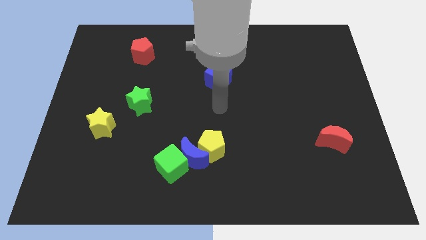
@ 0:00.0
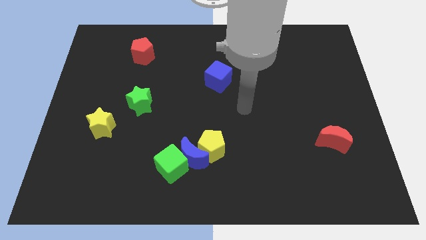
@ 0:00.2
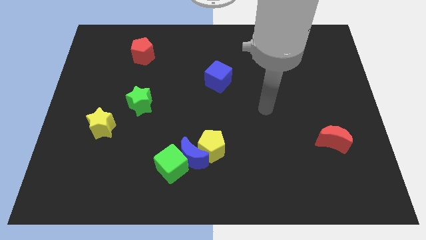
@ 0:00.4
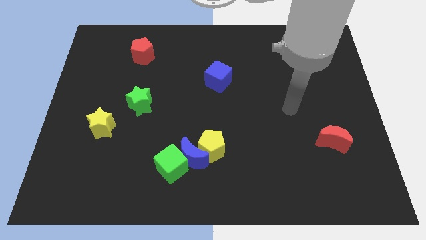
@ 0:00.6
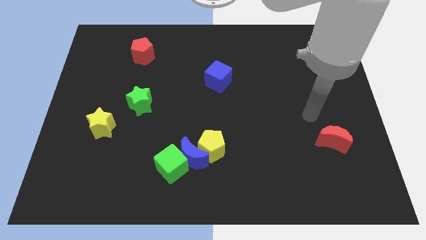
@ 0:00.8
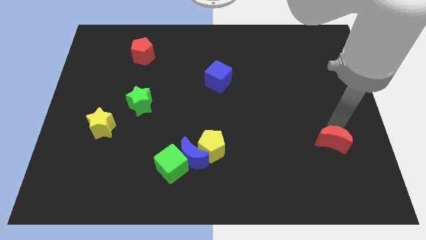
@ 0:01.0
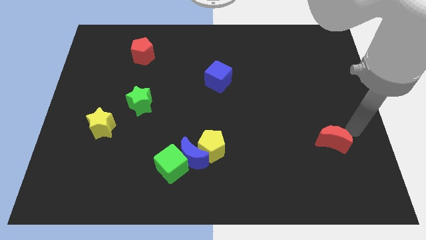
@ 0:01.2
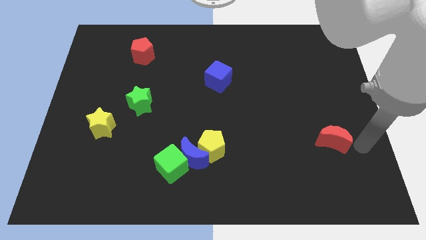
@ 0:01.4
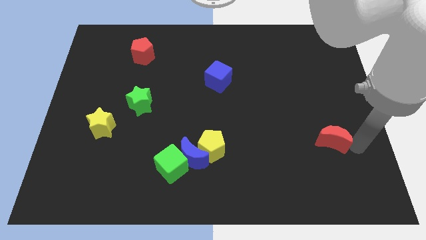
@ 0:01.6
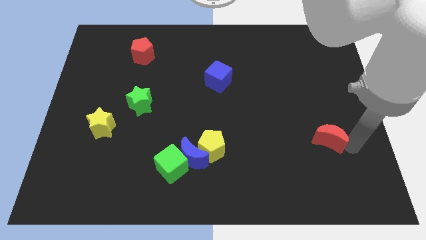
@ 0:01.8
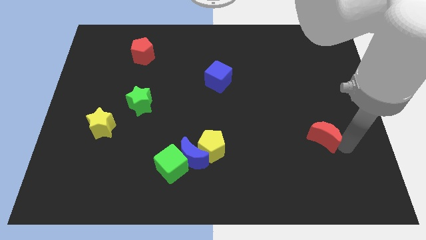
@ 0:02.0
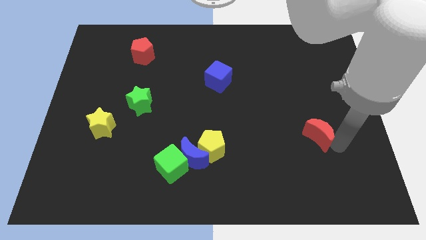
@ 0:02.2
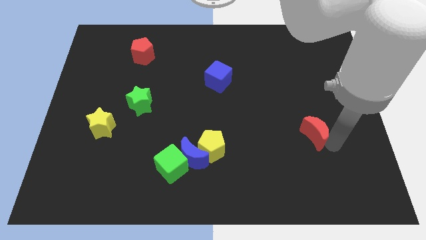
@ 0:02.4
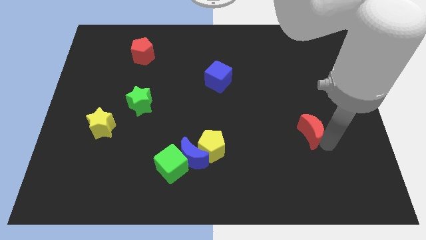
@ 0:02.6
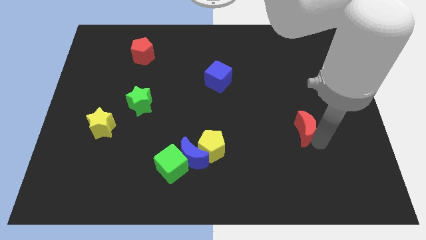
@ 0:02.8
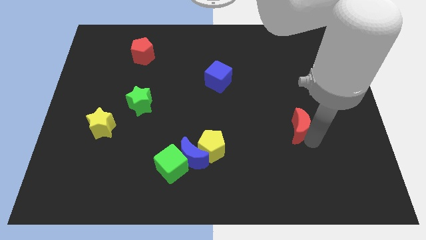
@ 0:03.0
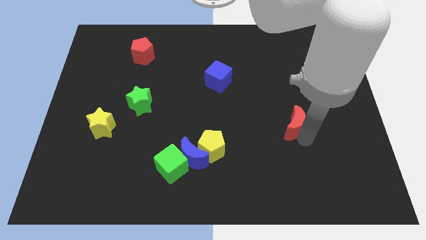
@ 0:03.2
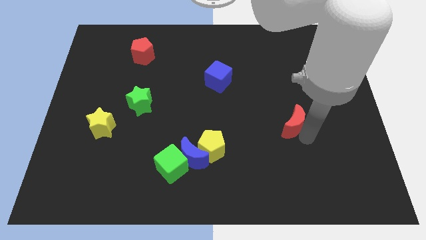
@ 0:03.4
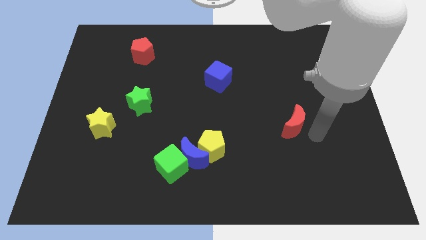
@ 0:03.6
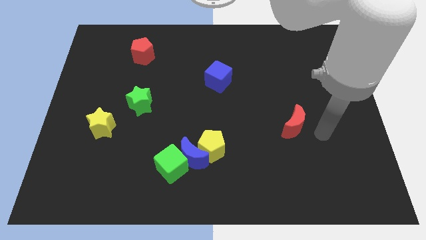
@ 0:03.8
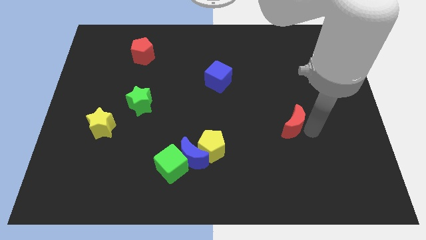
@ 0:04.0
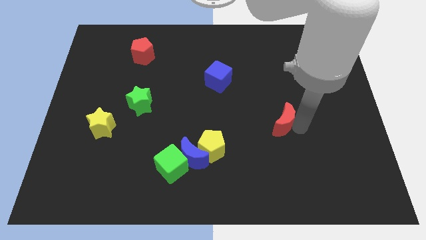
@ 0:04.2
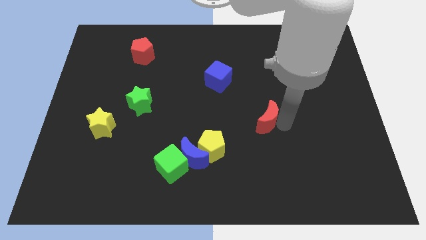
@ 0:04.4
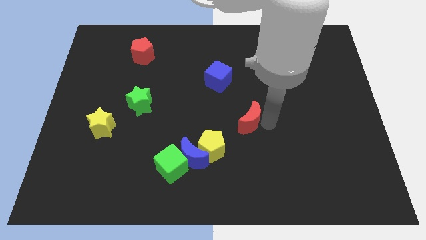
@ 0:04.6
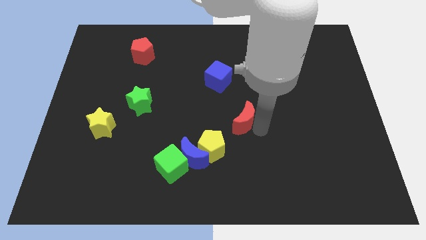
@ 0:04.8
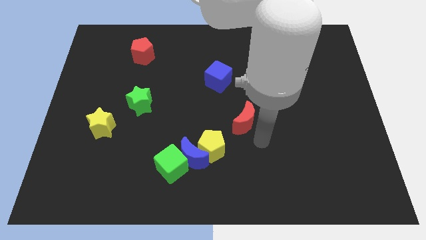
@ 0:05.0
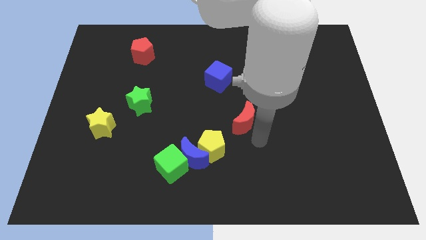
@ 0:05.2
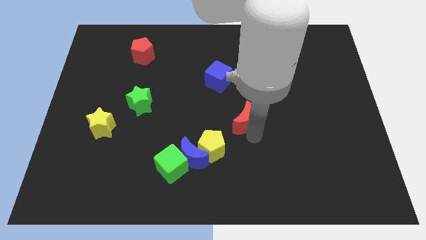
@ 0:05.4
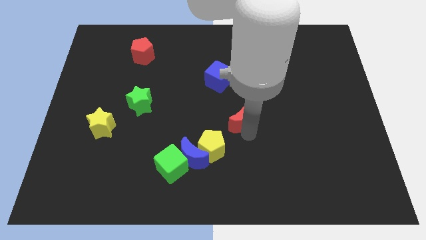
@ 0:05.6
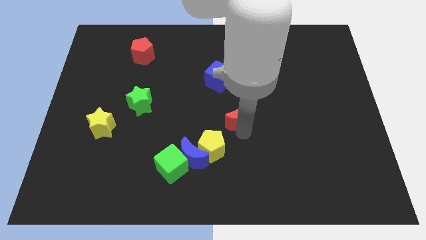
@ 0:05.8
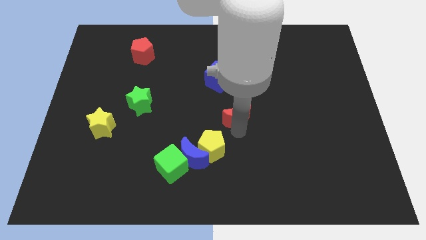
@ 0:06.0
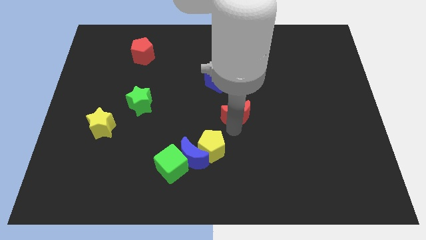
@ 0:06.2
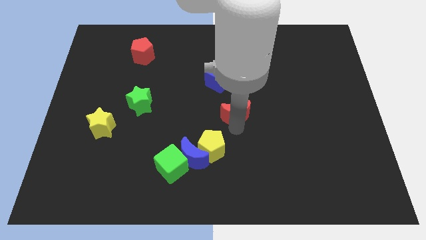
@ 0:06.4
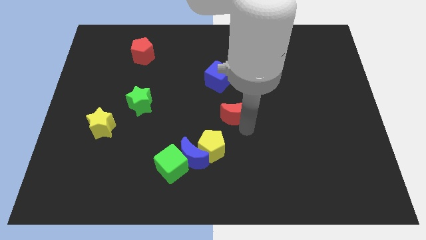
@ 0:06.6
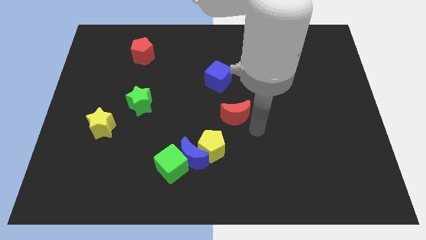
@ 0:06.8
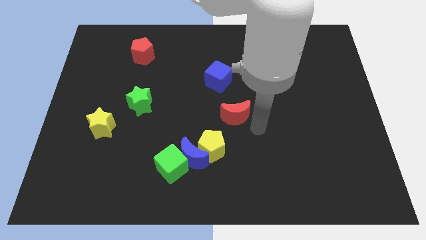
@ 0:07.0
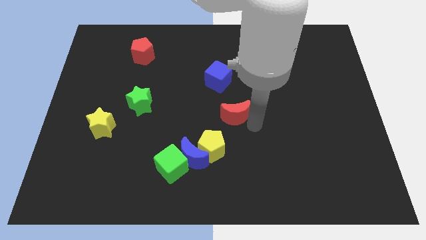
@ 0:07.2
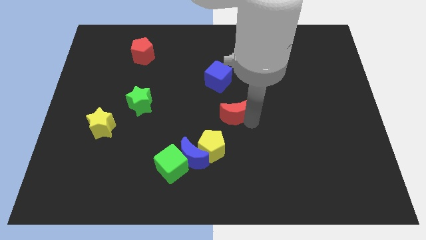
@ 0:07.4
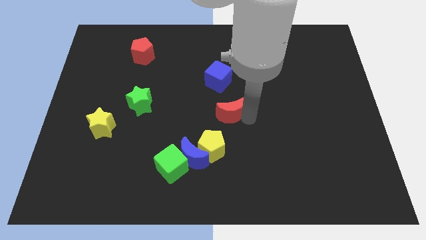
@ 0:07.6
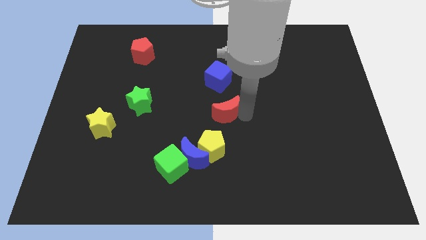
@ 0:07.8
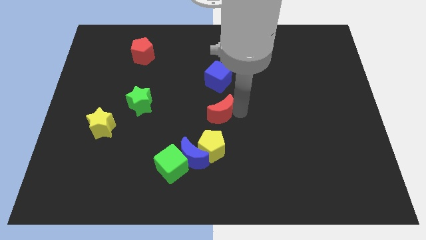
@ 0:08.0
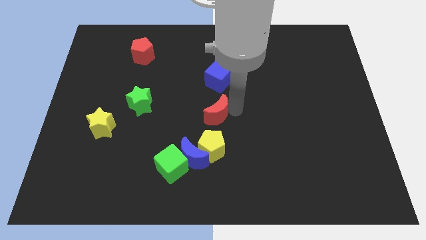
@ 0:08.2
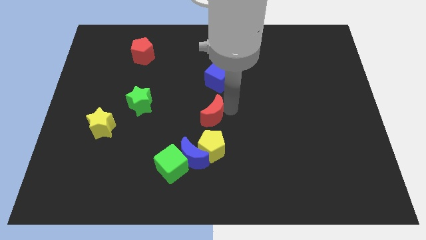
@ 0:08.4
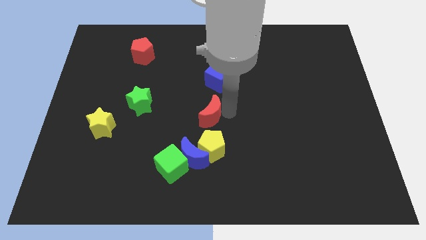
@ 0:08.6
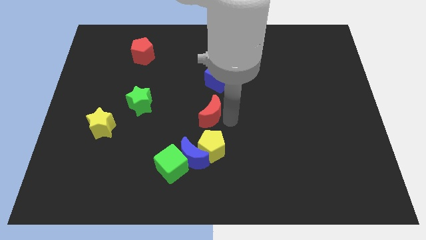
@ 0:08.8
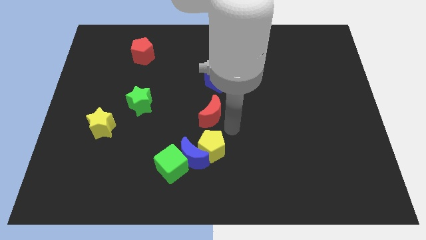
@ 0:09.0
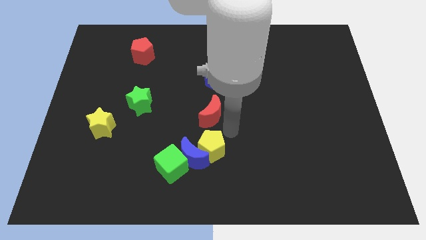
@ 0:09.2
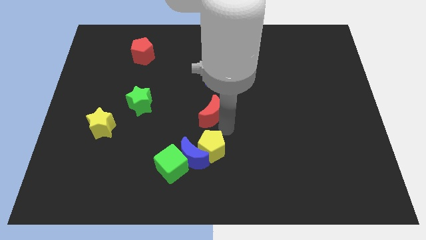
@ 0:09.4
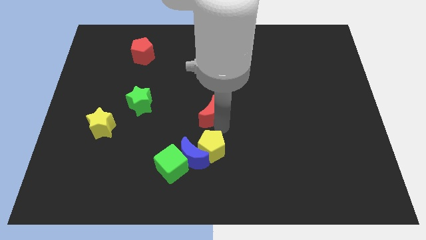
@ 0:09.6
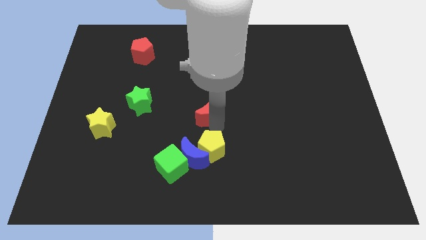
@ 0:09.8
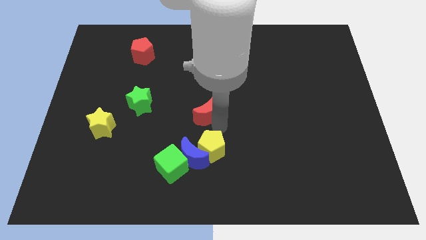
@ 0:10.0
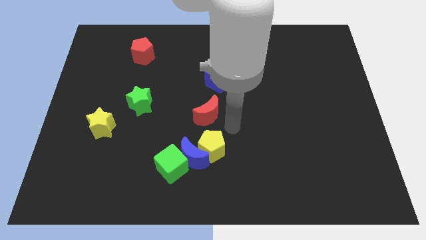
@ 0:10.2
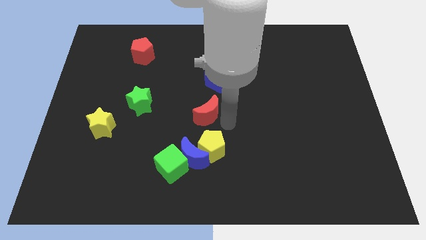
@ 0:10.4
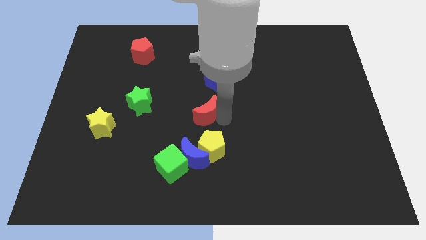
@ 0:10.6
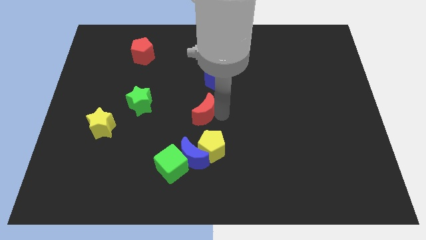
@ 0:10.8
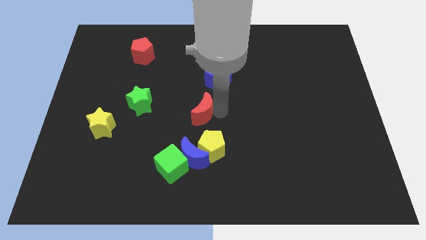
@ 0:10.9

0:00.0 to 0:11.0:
move the red moon to the right side of the green star

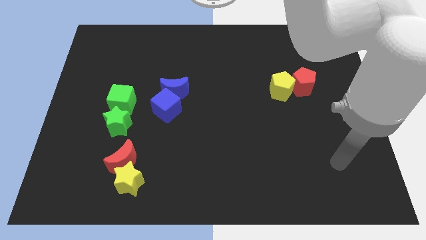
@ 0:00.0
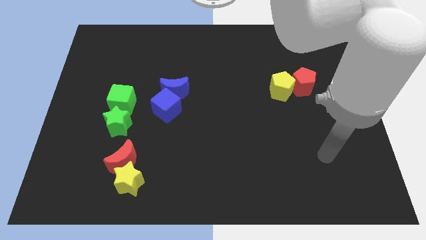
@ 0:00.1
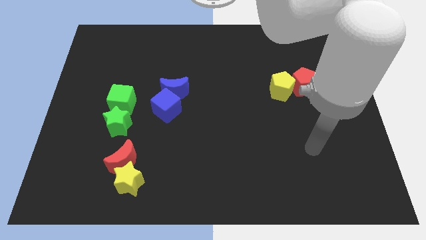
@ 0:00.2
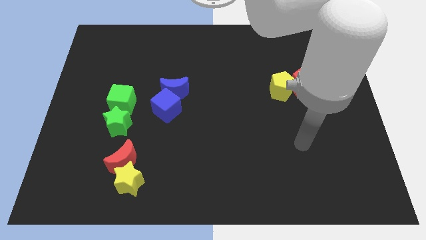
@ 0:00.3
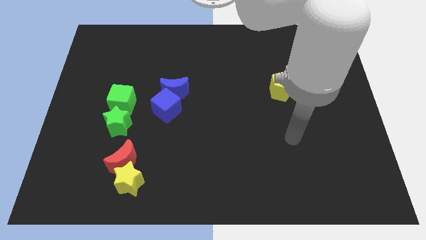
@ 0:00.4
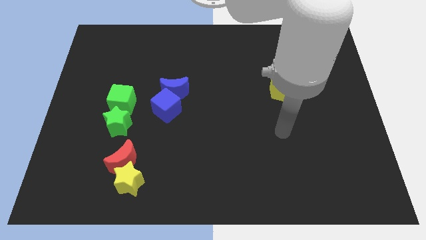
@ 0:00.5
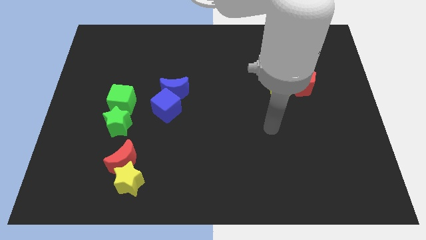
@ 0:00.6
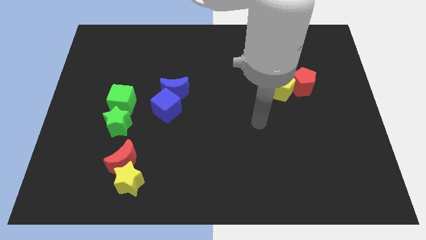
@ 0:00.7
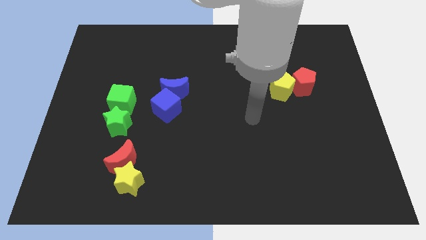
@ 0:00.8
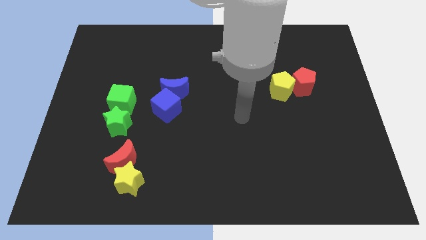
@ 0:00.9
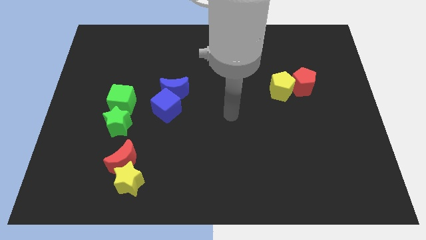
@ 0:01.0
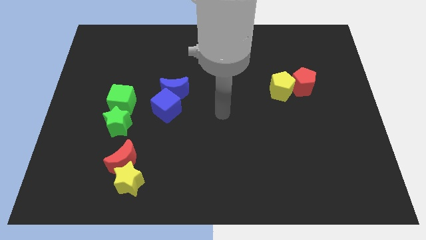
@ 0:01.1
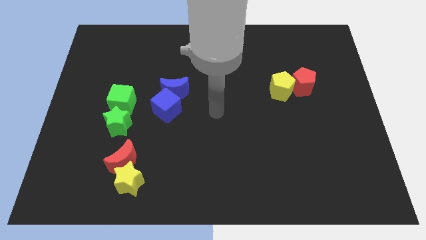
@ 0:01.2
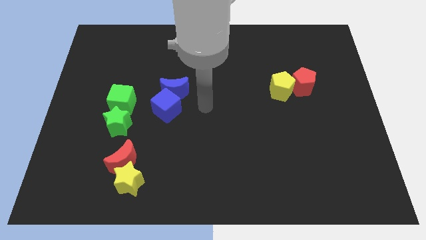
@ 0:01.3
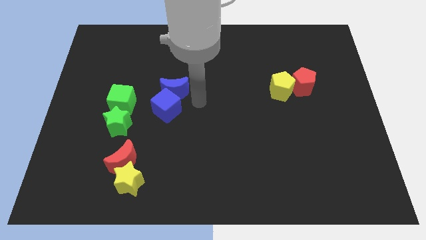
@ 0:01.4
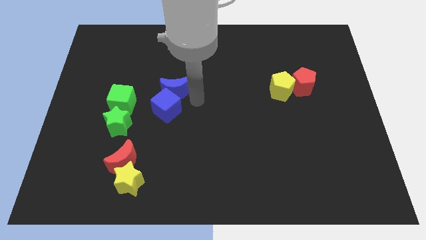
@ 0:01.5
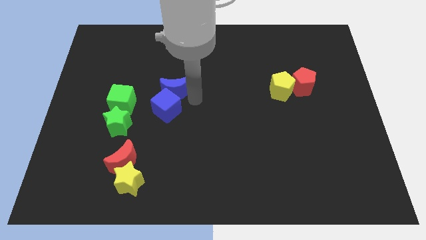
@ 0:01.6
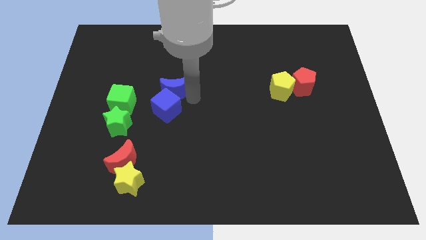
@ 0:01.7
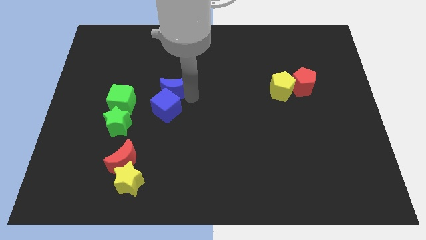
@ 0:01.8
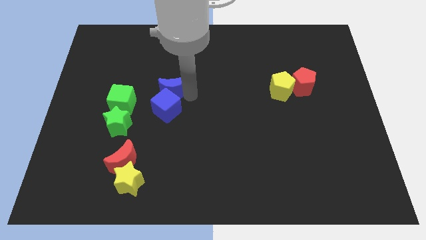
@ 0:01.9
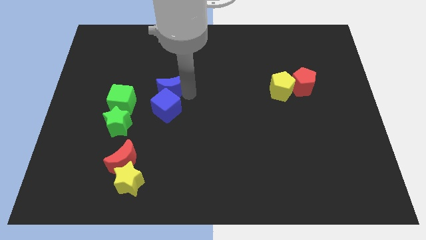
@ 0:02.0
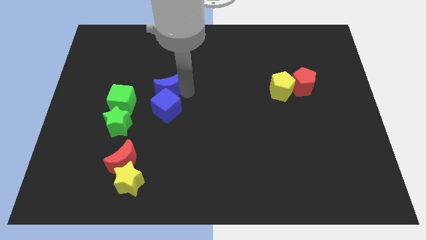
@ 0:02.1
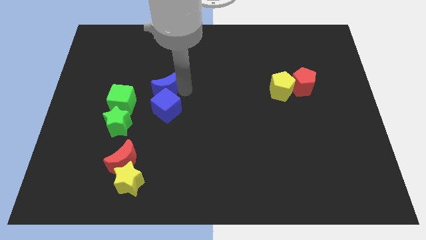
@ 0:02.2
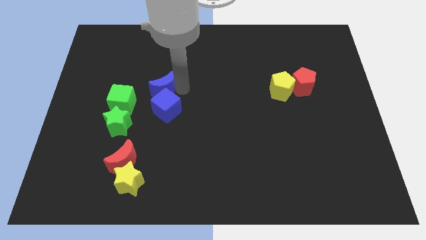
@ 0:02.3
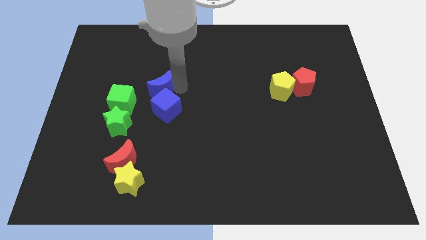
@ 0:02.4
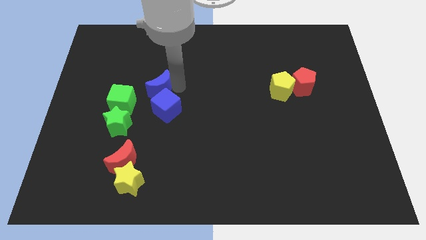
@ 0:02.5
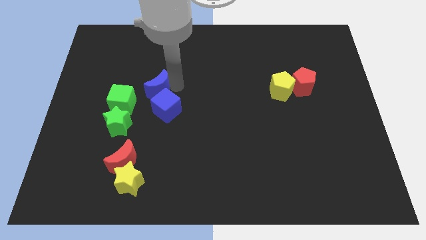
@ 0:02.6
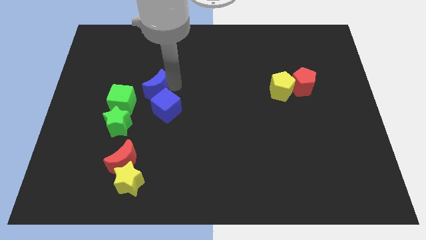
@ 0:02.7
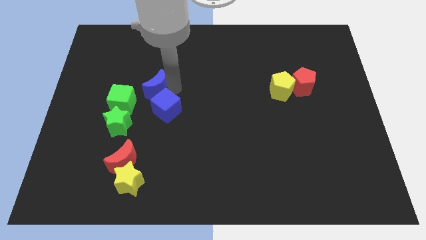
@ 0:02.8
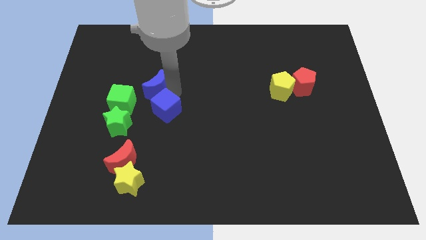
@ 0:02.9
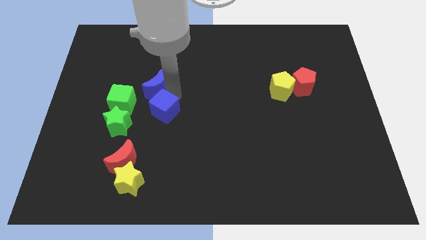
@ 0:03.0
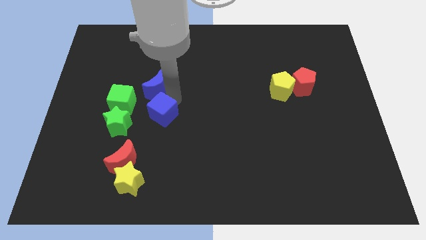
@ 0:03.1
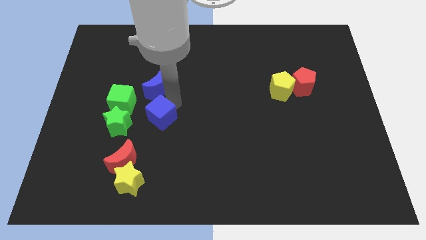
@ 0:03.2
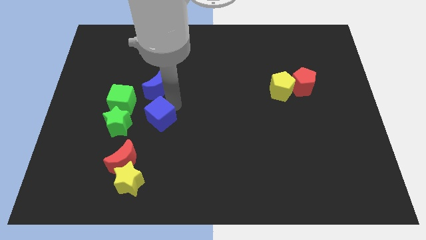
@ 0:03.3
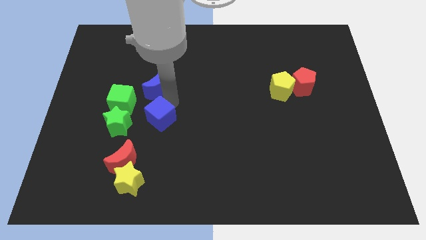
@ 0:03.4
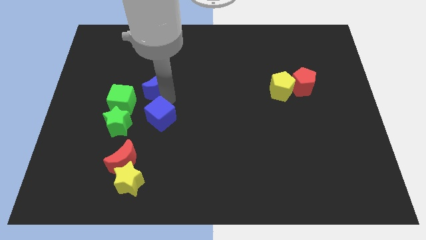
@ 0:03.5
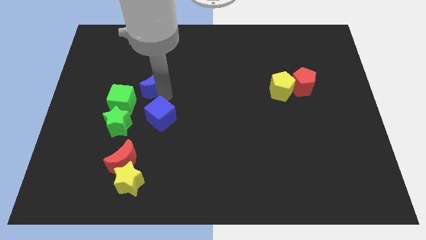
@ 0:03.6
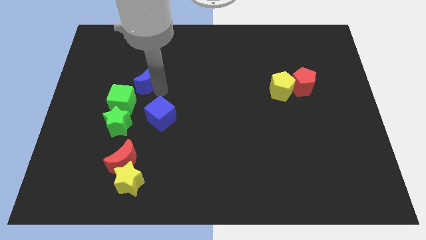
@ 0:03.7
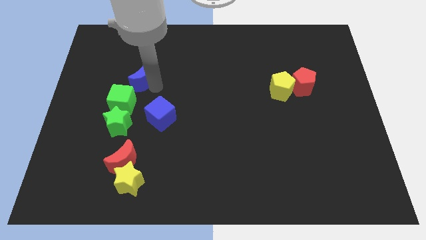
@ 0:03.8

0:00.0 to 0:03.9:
move the blue moon above the green cube
